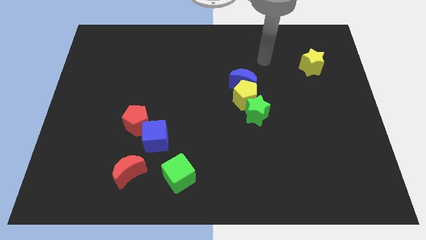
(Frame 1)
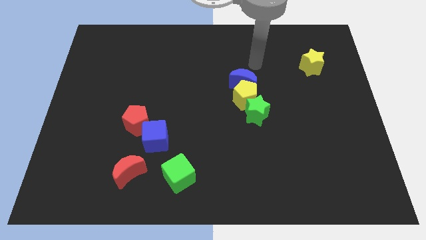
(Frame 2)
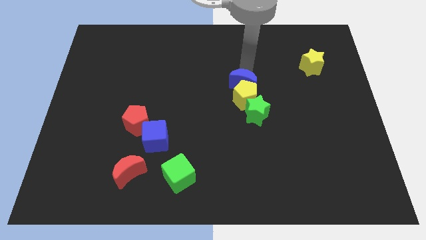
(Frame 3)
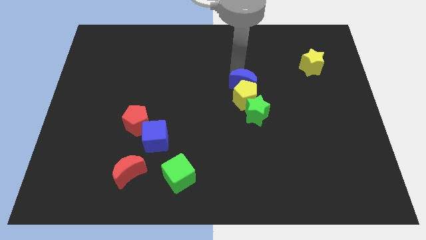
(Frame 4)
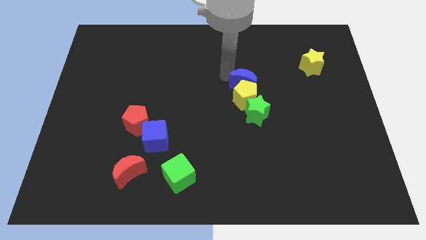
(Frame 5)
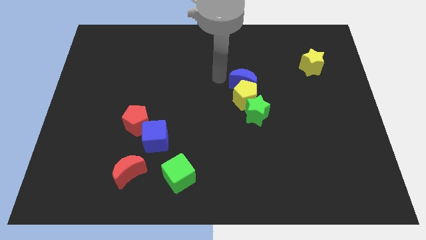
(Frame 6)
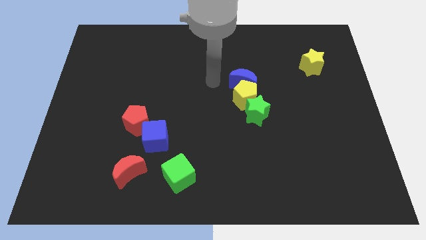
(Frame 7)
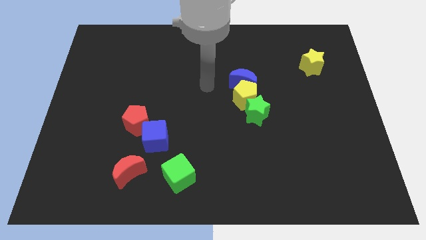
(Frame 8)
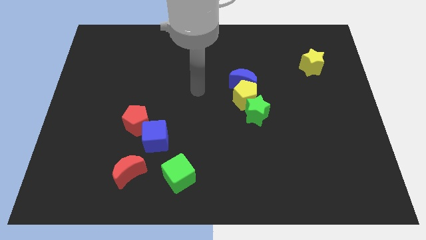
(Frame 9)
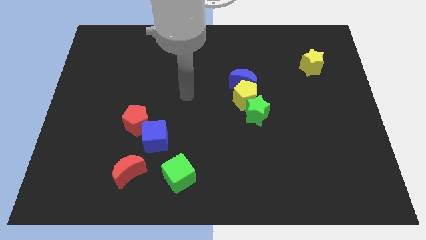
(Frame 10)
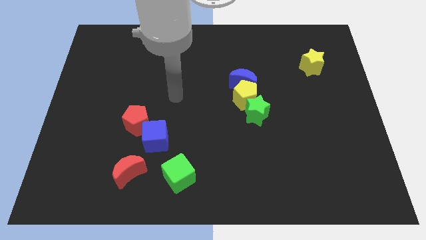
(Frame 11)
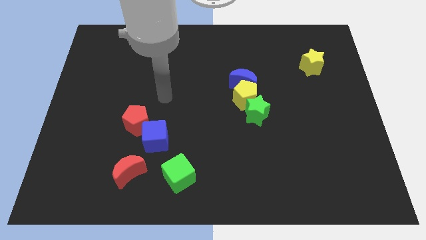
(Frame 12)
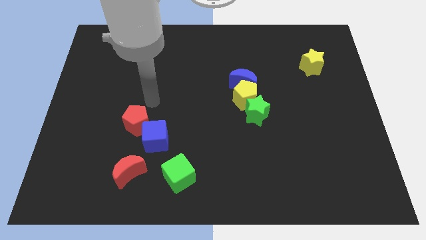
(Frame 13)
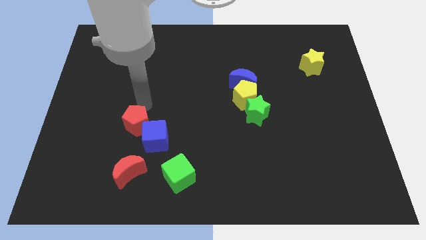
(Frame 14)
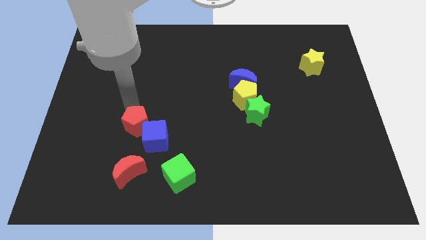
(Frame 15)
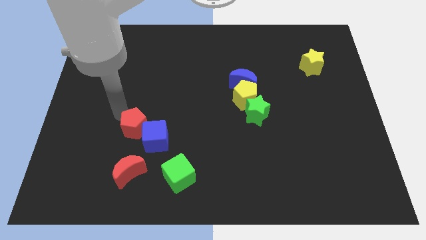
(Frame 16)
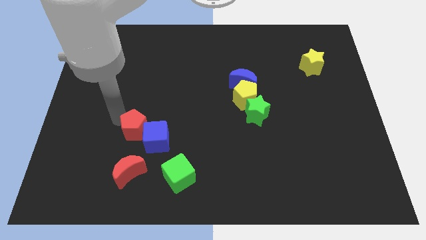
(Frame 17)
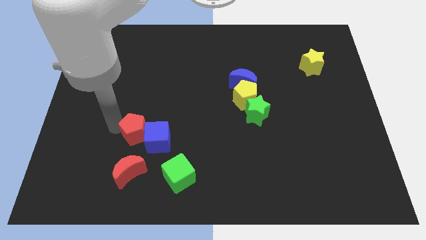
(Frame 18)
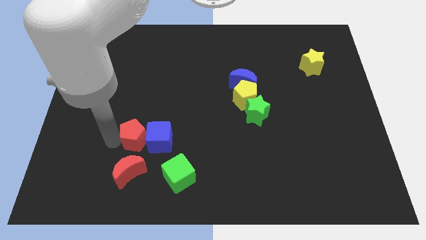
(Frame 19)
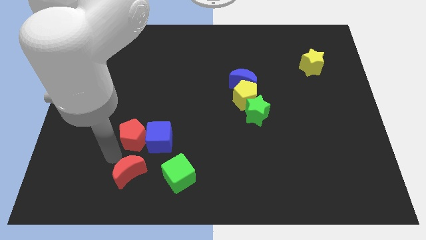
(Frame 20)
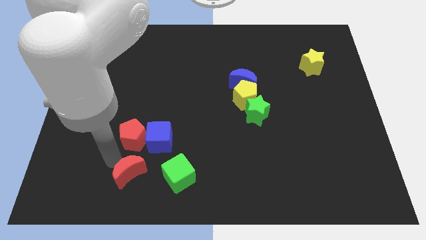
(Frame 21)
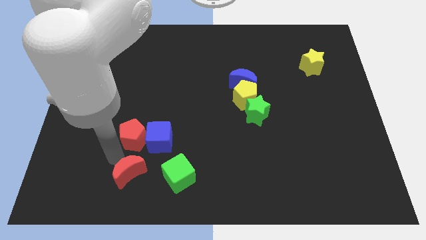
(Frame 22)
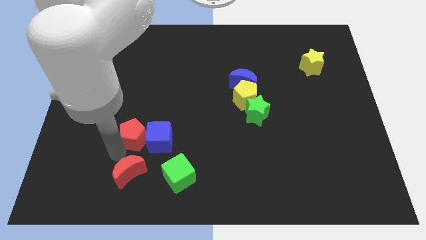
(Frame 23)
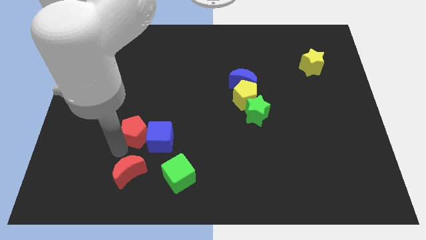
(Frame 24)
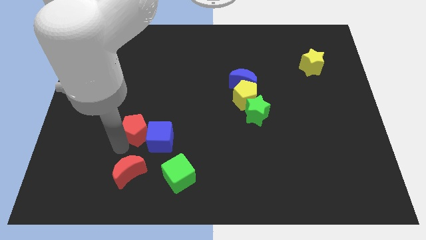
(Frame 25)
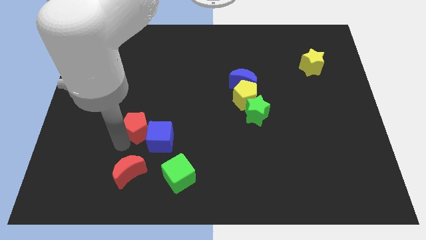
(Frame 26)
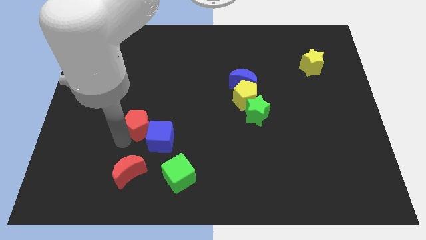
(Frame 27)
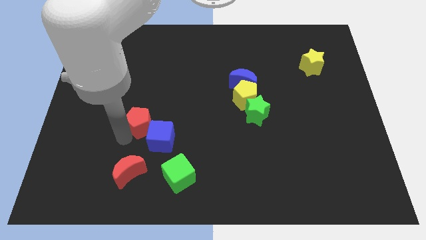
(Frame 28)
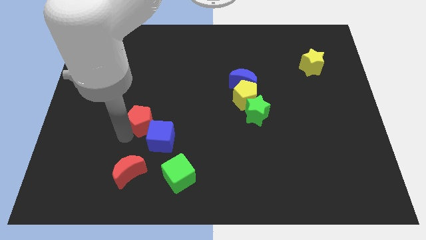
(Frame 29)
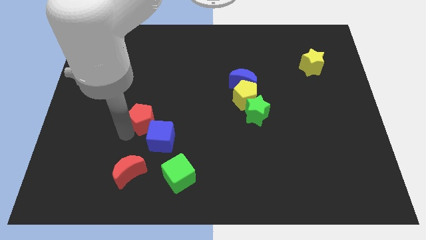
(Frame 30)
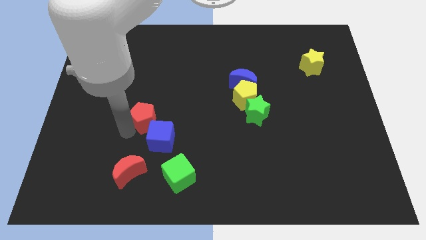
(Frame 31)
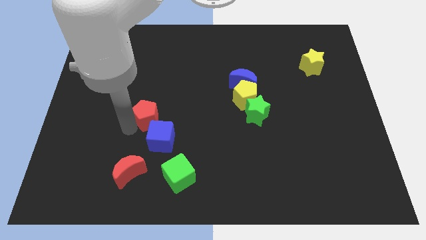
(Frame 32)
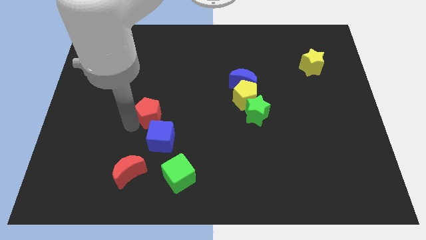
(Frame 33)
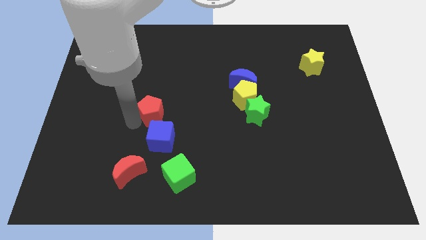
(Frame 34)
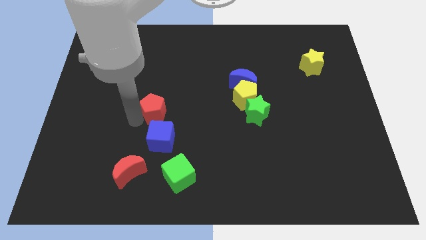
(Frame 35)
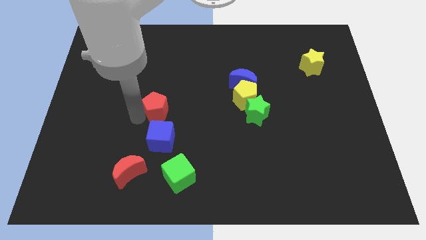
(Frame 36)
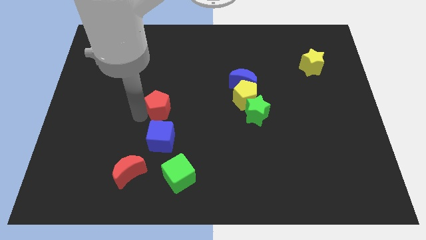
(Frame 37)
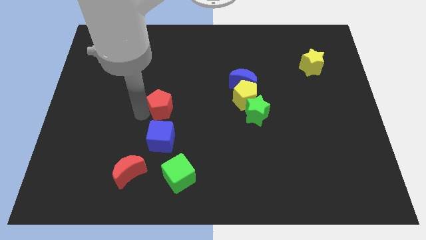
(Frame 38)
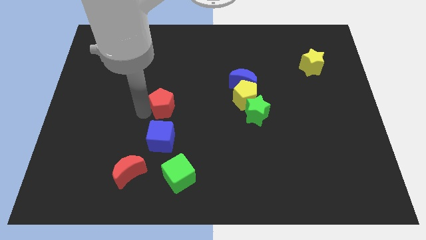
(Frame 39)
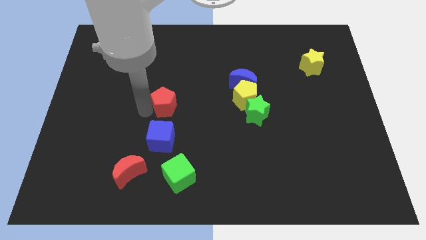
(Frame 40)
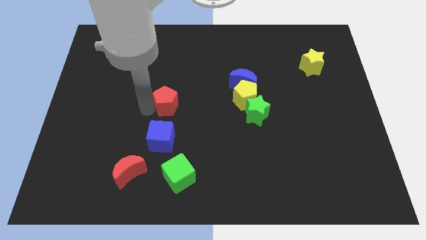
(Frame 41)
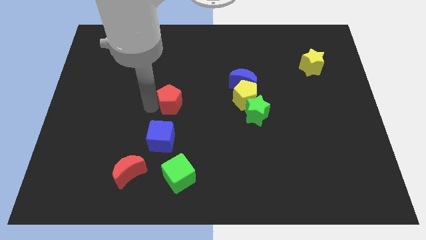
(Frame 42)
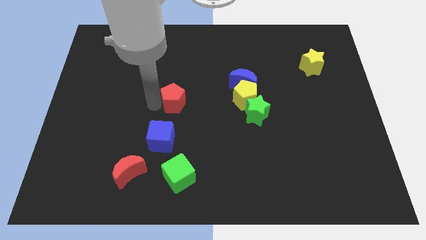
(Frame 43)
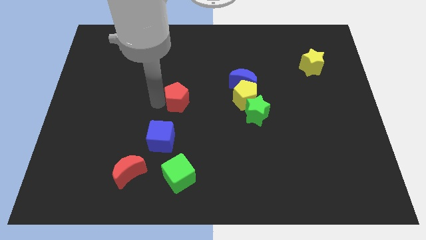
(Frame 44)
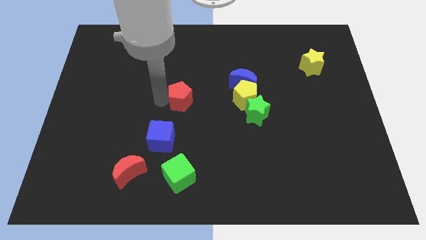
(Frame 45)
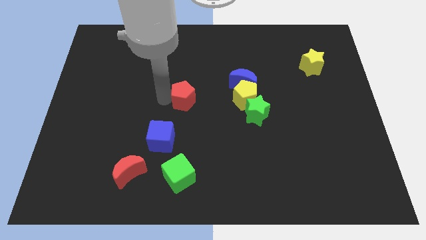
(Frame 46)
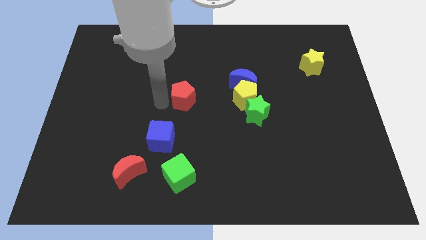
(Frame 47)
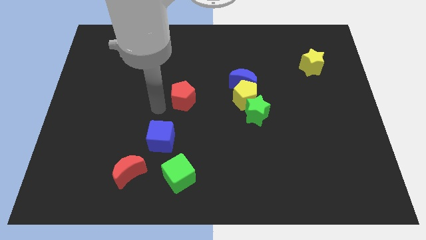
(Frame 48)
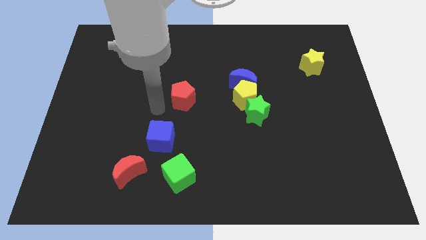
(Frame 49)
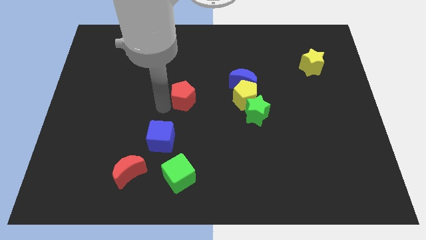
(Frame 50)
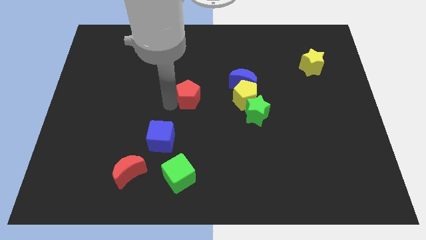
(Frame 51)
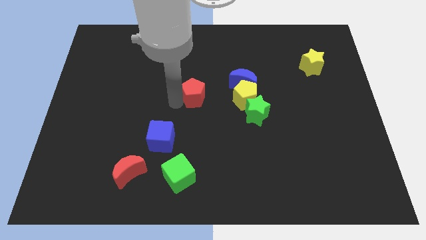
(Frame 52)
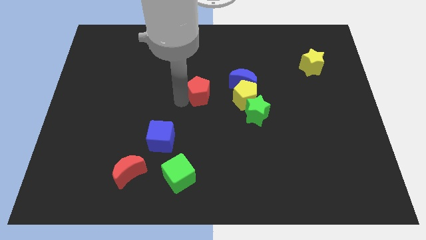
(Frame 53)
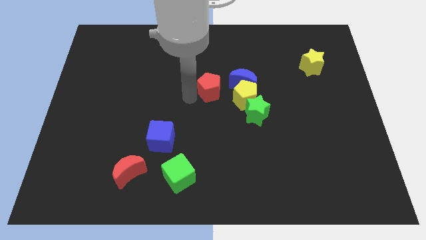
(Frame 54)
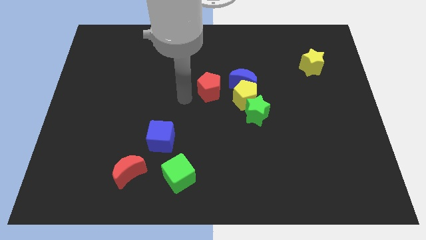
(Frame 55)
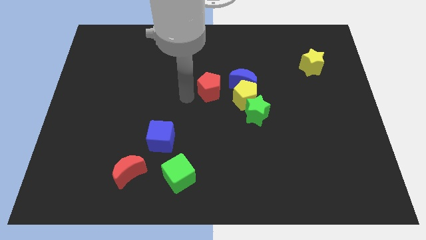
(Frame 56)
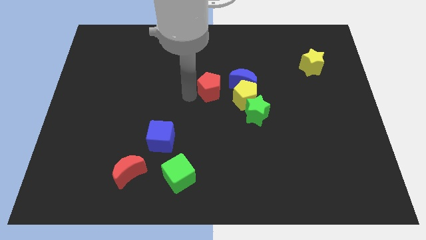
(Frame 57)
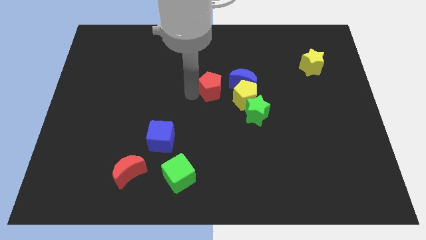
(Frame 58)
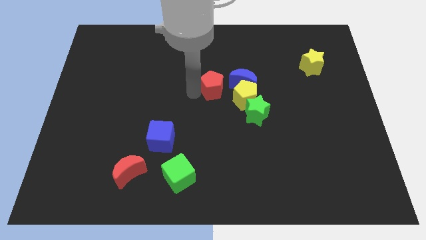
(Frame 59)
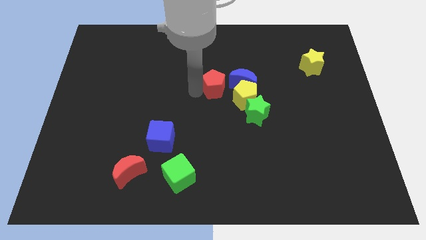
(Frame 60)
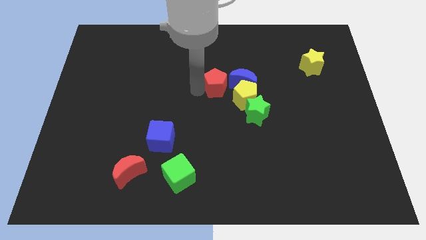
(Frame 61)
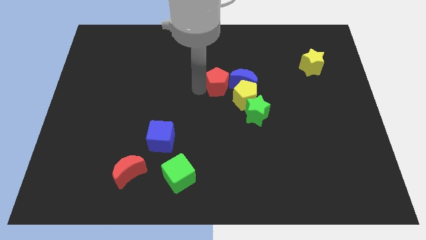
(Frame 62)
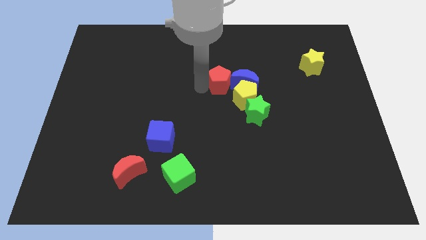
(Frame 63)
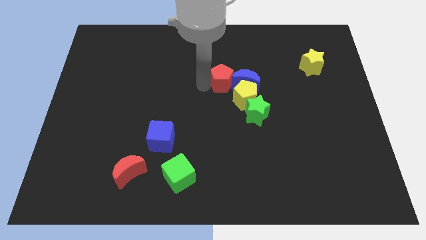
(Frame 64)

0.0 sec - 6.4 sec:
slide the red pentagon close to the blue moon

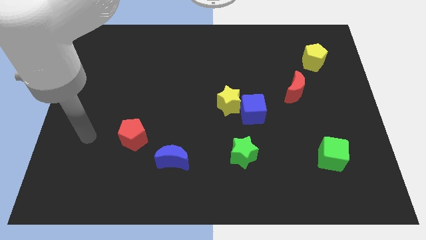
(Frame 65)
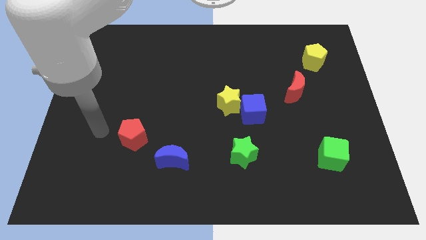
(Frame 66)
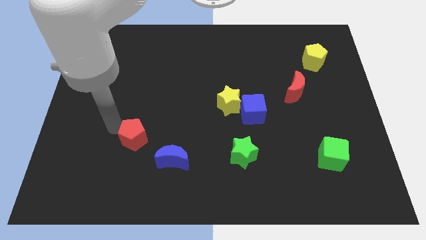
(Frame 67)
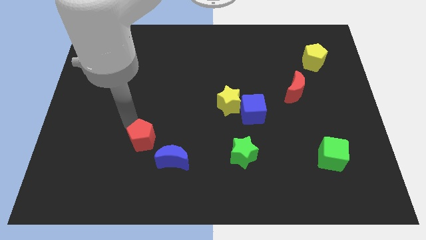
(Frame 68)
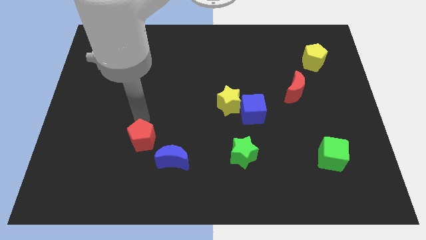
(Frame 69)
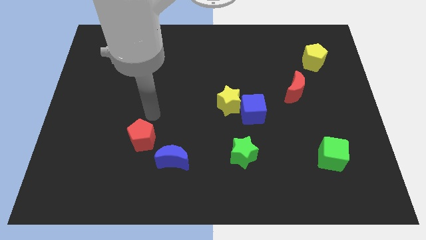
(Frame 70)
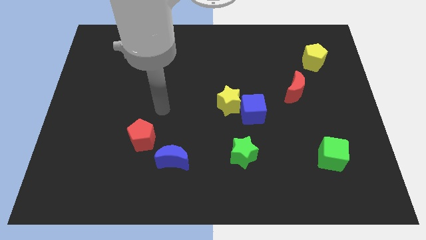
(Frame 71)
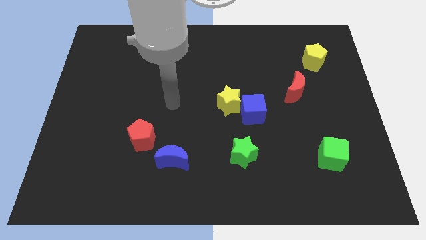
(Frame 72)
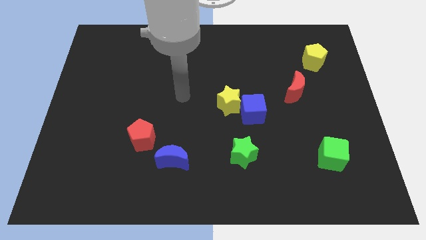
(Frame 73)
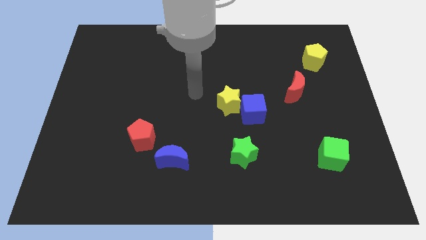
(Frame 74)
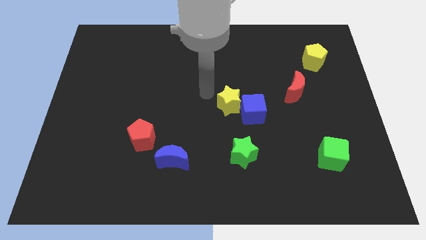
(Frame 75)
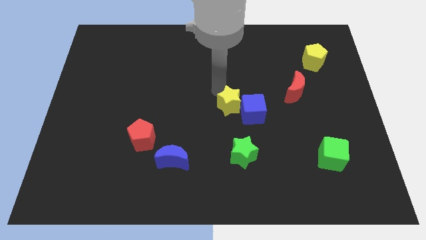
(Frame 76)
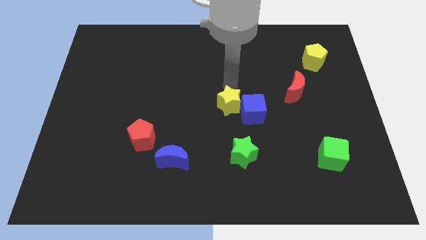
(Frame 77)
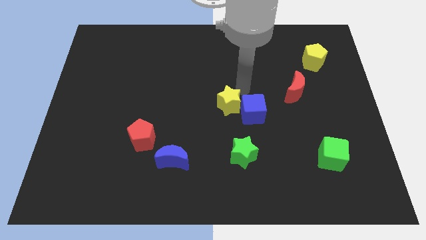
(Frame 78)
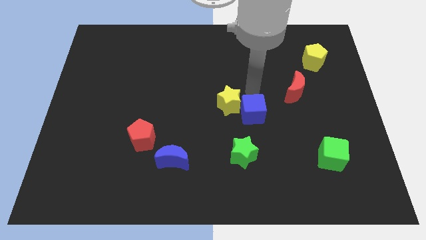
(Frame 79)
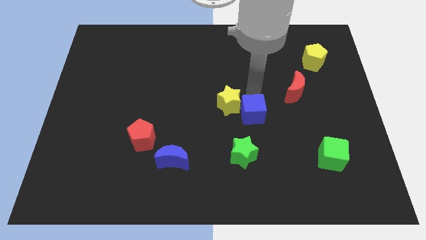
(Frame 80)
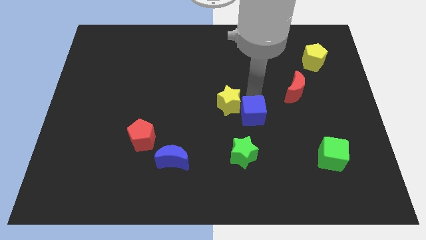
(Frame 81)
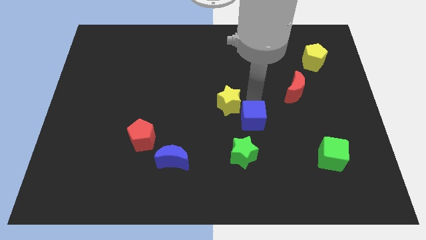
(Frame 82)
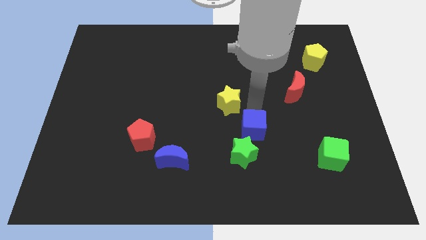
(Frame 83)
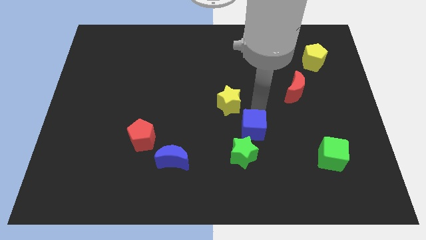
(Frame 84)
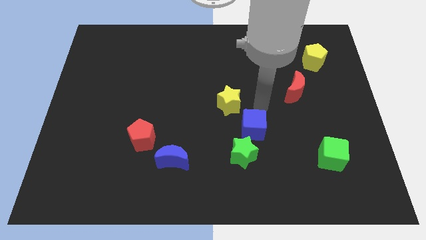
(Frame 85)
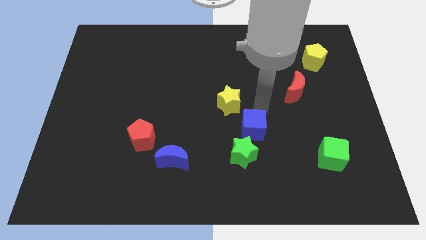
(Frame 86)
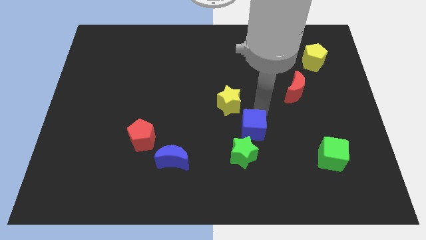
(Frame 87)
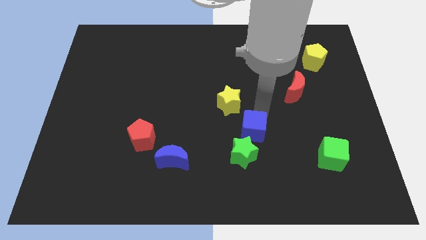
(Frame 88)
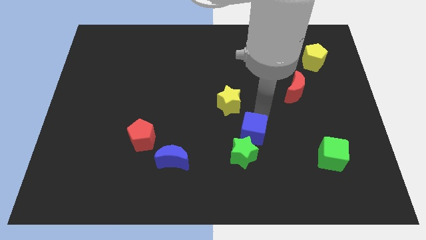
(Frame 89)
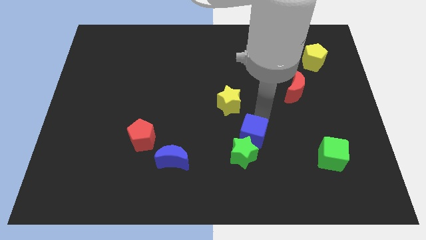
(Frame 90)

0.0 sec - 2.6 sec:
slide the blue cube to the green star
